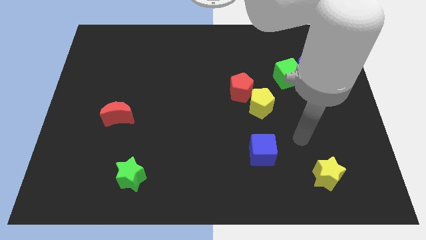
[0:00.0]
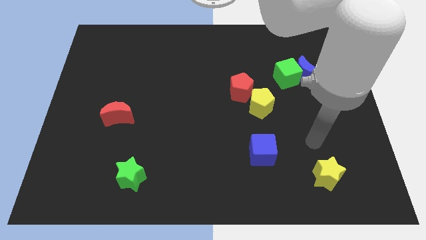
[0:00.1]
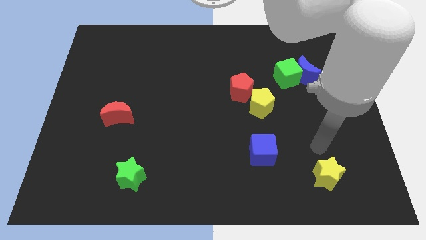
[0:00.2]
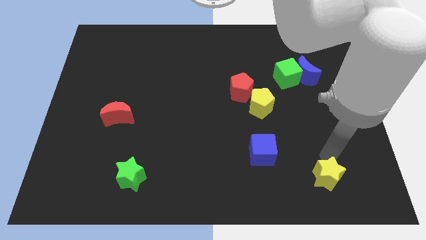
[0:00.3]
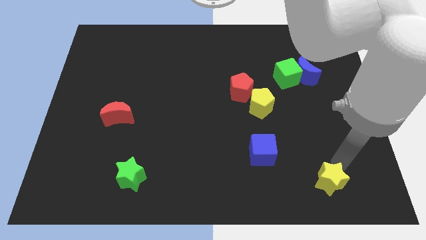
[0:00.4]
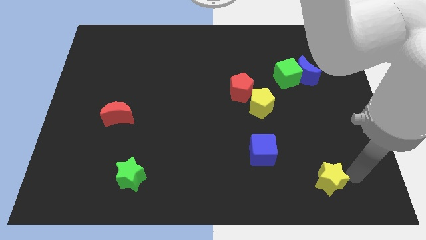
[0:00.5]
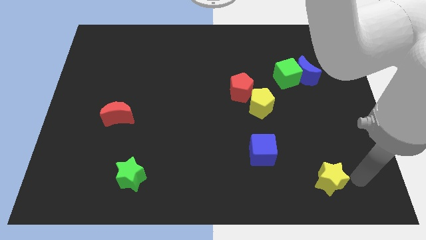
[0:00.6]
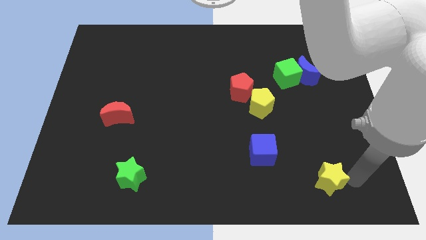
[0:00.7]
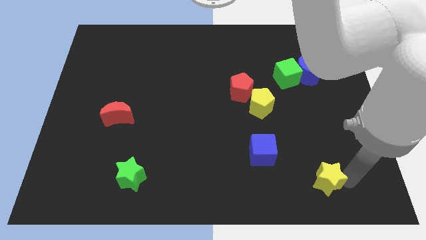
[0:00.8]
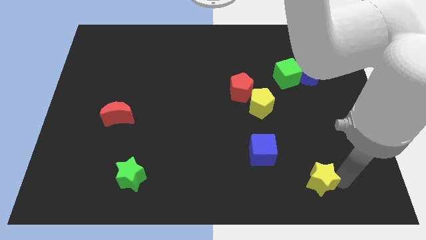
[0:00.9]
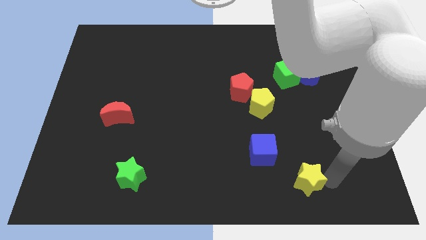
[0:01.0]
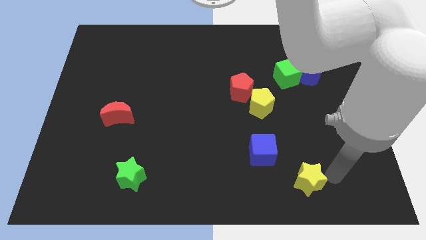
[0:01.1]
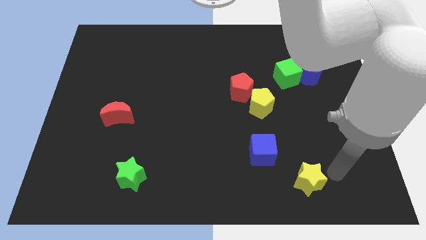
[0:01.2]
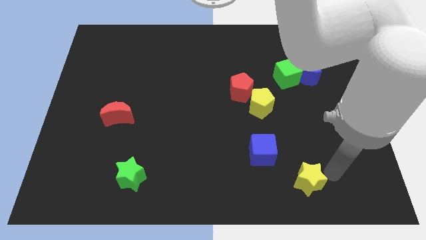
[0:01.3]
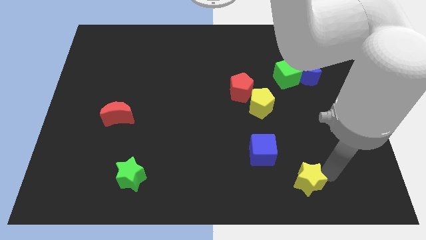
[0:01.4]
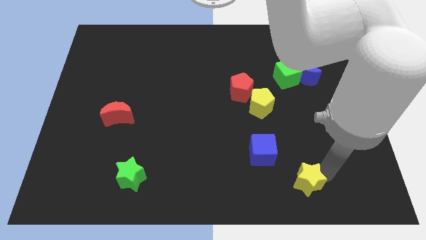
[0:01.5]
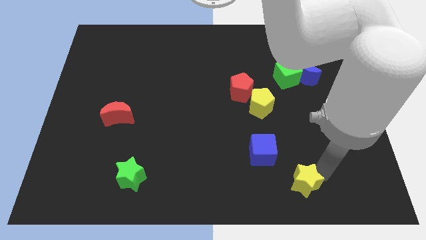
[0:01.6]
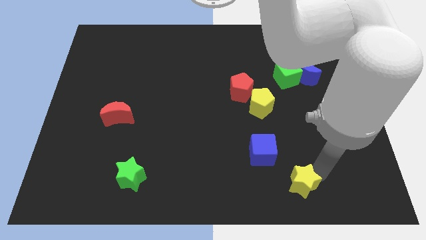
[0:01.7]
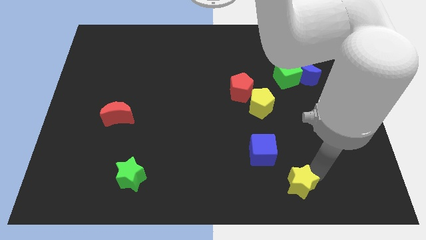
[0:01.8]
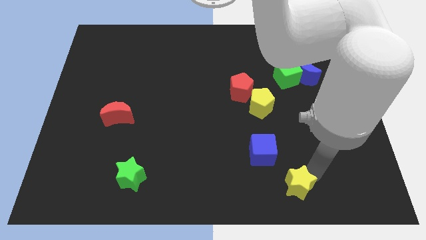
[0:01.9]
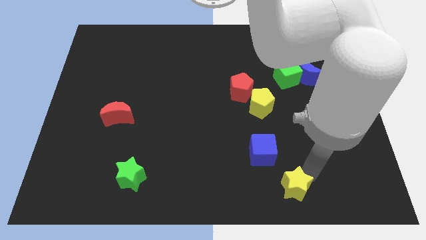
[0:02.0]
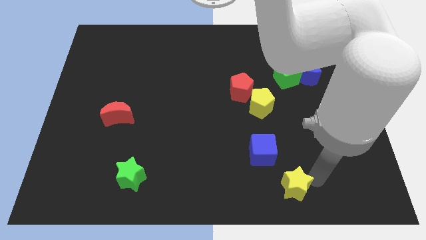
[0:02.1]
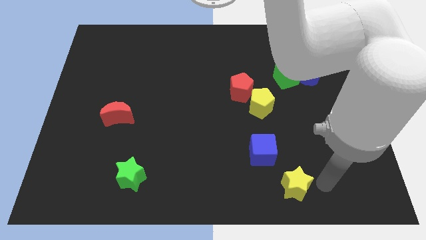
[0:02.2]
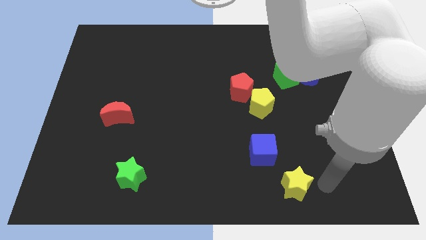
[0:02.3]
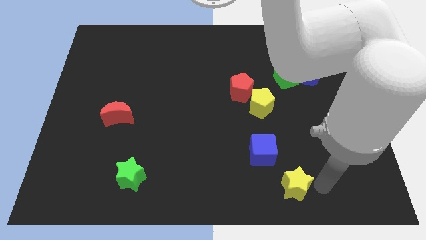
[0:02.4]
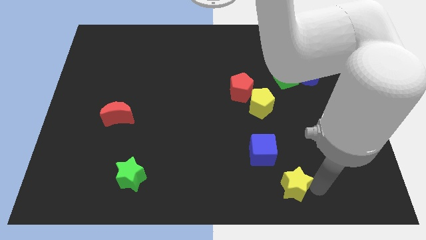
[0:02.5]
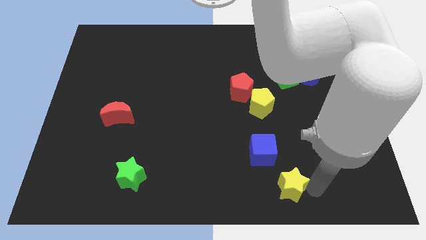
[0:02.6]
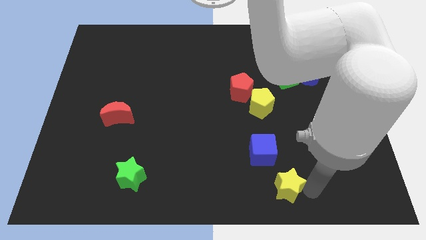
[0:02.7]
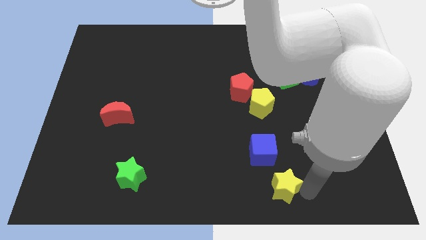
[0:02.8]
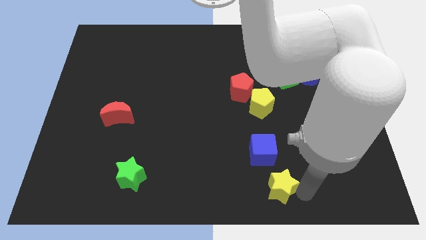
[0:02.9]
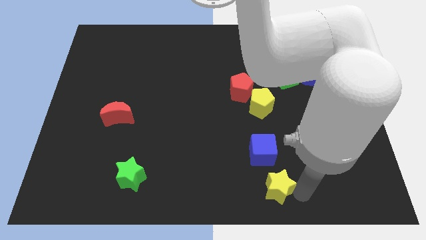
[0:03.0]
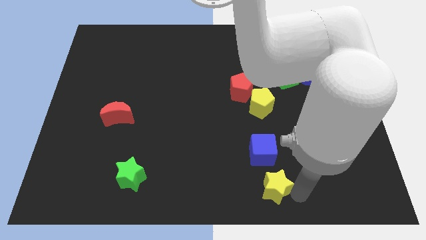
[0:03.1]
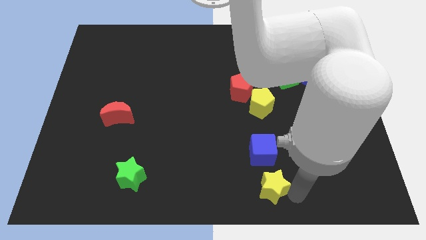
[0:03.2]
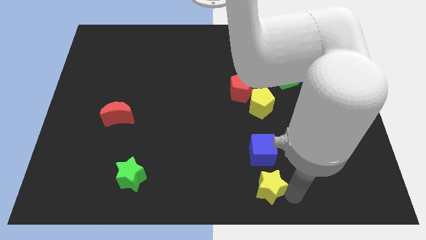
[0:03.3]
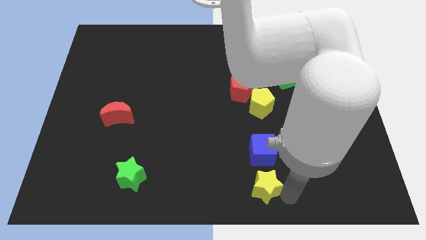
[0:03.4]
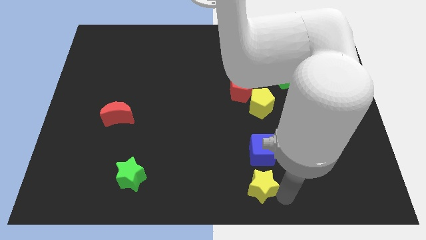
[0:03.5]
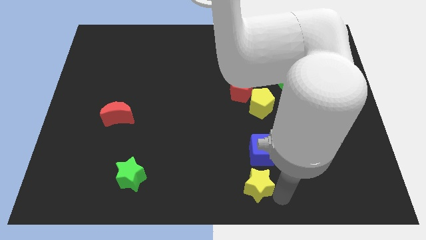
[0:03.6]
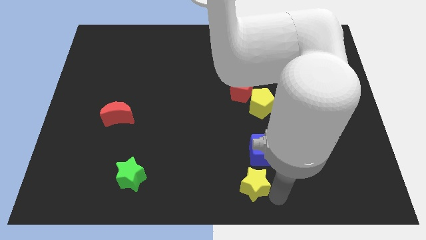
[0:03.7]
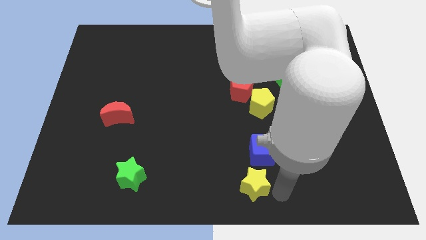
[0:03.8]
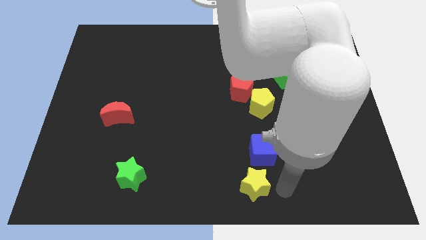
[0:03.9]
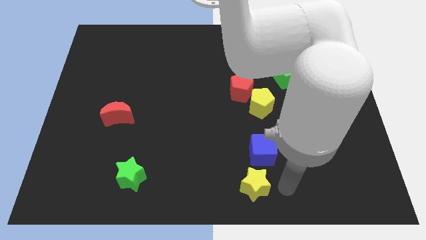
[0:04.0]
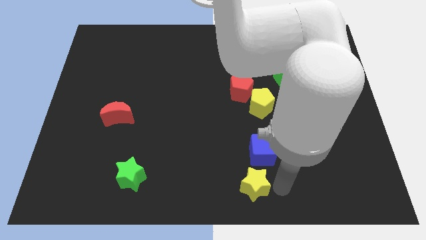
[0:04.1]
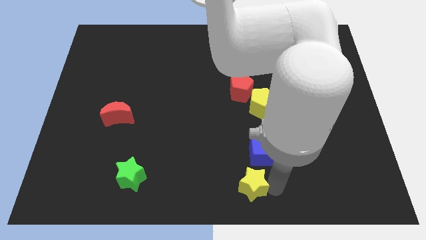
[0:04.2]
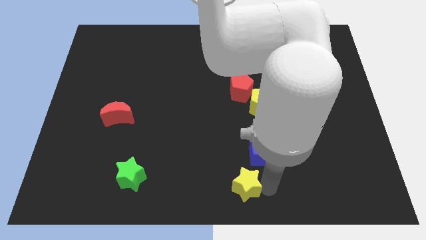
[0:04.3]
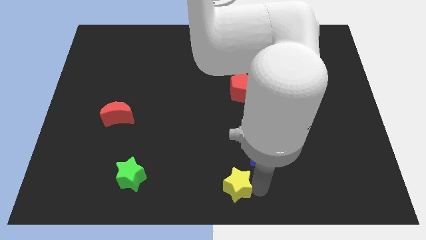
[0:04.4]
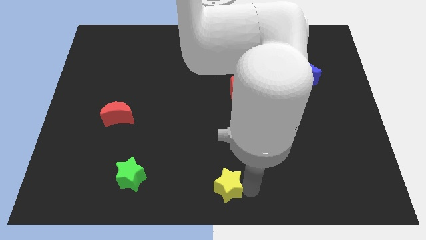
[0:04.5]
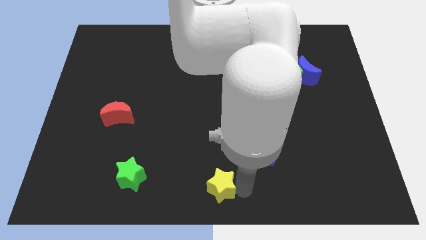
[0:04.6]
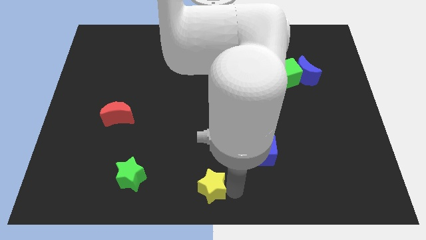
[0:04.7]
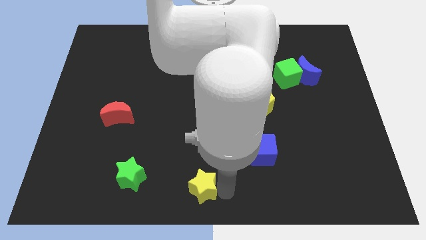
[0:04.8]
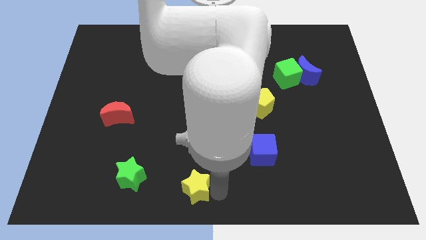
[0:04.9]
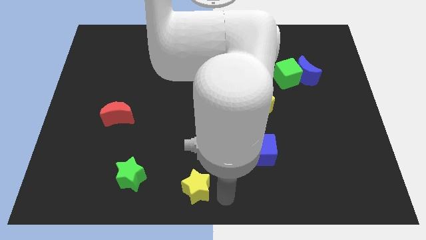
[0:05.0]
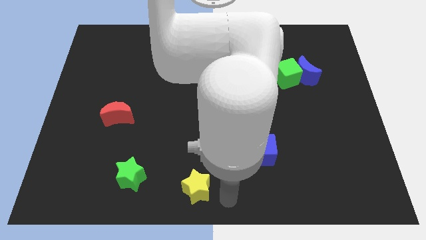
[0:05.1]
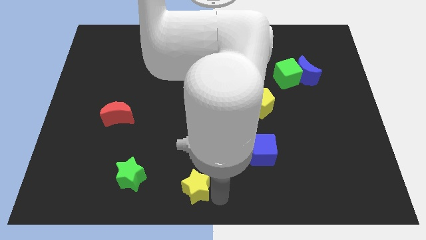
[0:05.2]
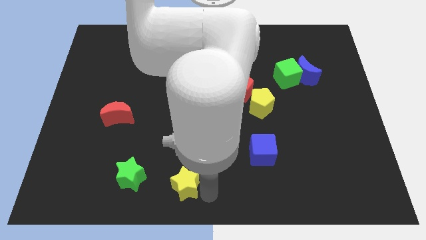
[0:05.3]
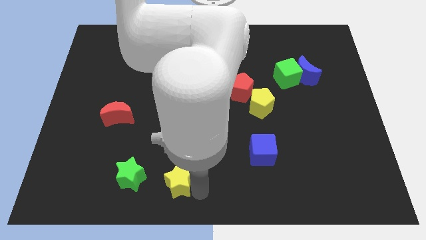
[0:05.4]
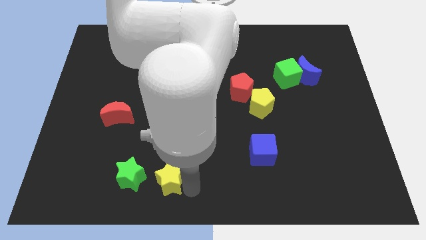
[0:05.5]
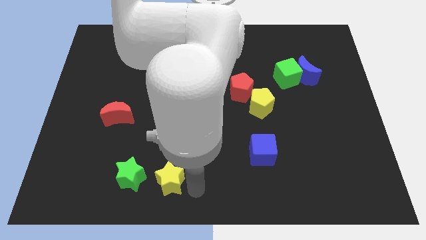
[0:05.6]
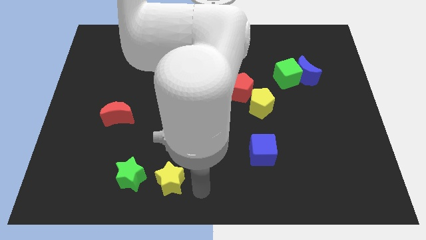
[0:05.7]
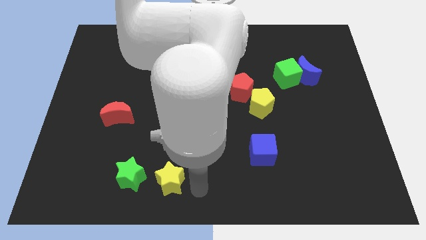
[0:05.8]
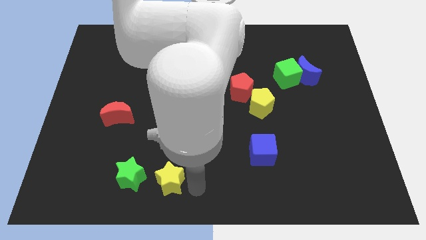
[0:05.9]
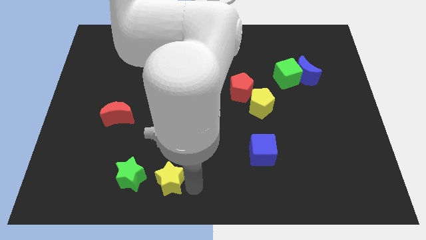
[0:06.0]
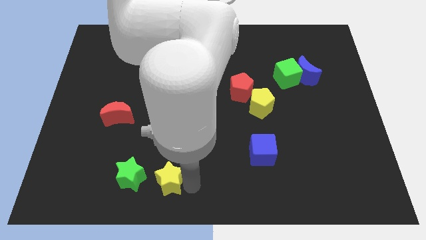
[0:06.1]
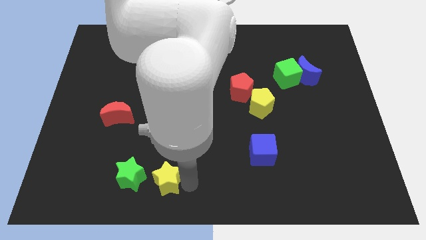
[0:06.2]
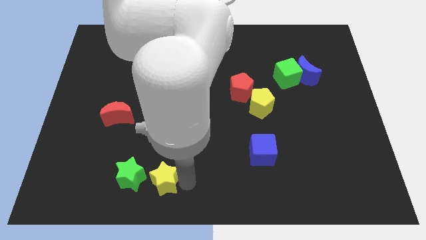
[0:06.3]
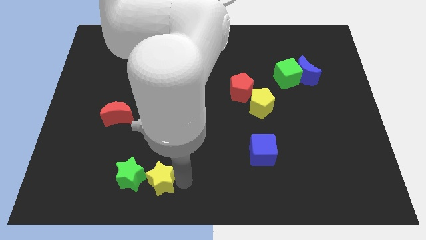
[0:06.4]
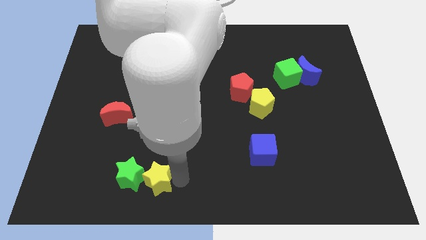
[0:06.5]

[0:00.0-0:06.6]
put the yellow star to the green star

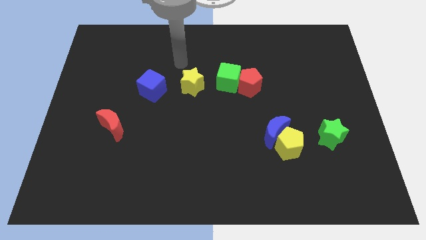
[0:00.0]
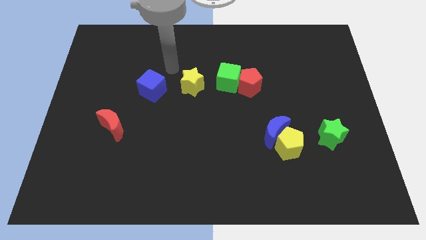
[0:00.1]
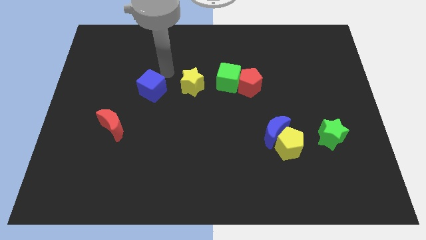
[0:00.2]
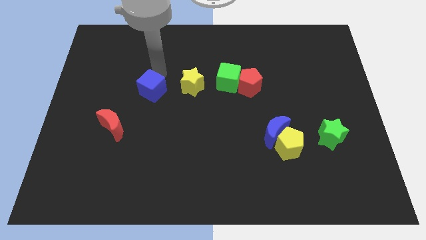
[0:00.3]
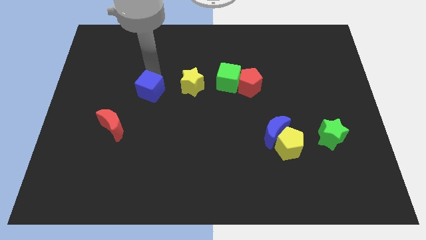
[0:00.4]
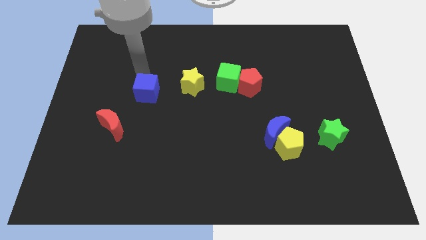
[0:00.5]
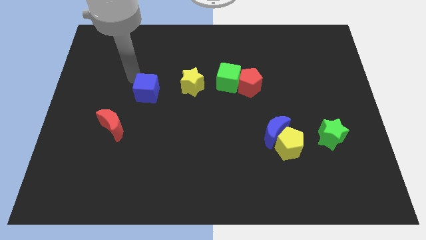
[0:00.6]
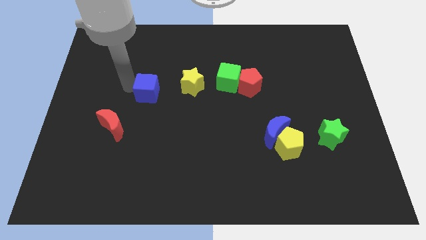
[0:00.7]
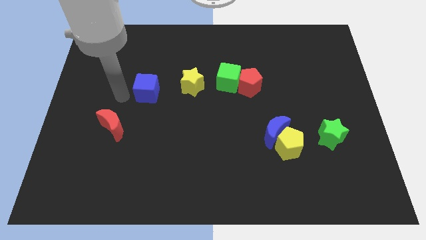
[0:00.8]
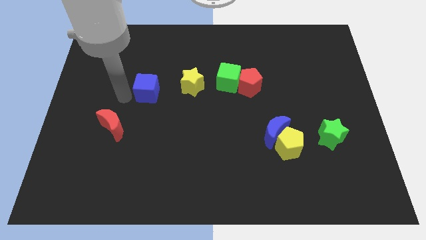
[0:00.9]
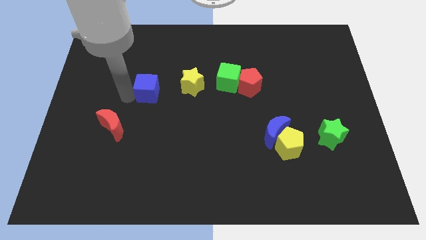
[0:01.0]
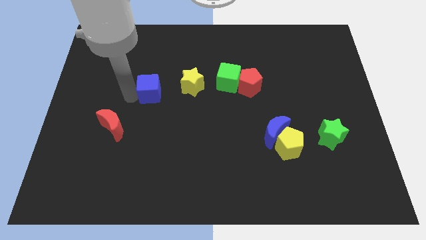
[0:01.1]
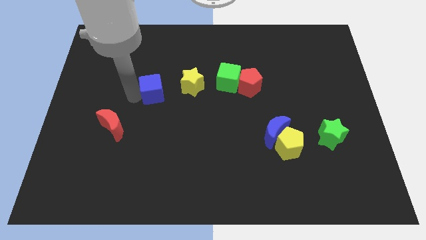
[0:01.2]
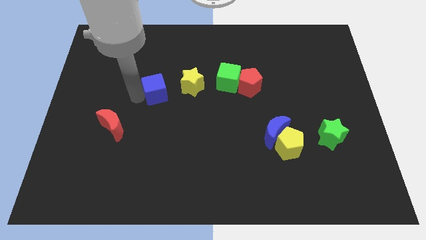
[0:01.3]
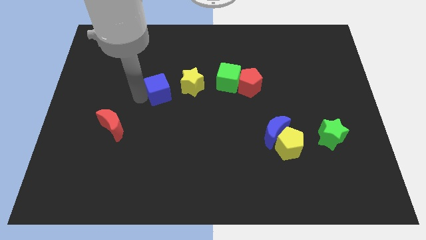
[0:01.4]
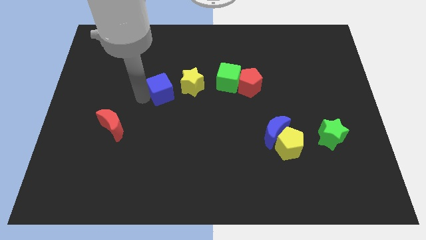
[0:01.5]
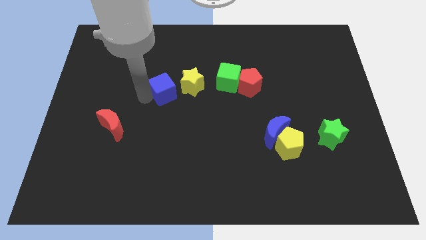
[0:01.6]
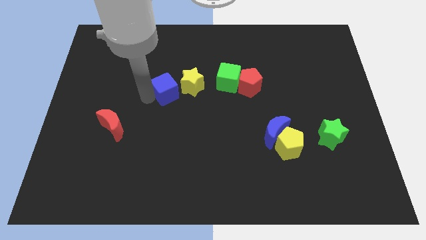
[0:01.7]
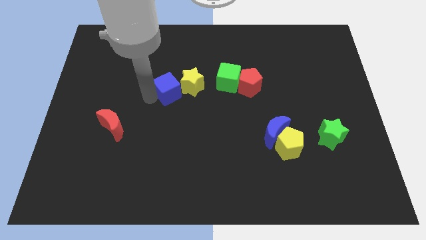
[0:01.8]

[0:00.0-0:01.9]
slide the blue cube close to the yellow star
